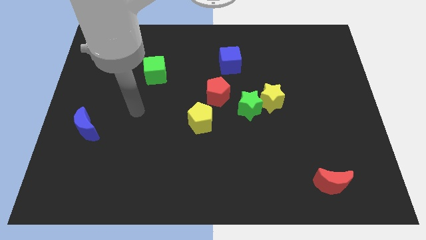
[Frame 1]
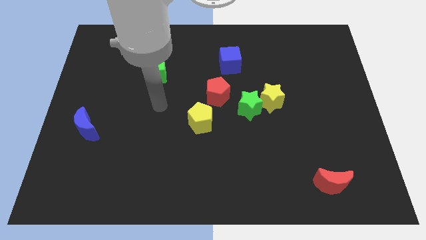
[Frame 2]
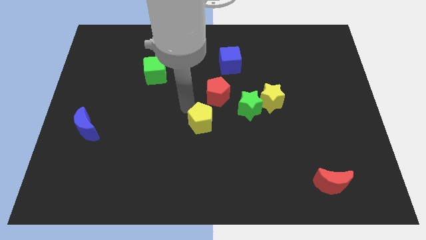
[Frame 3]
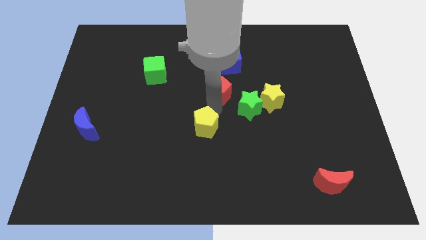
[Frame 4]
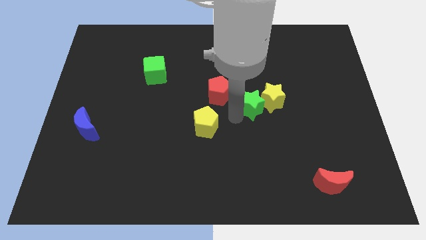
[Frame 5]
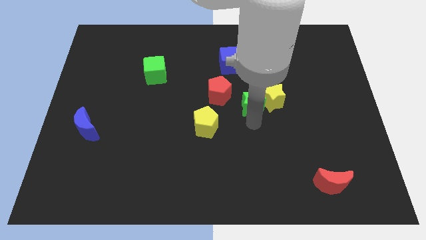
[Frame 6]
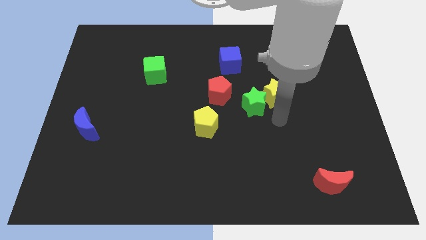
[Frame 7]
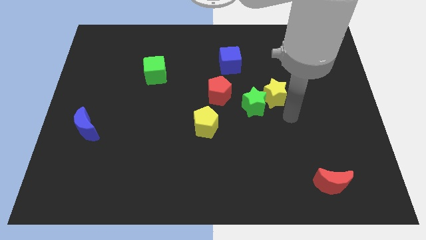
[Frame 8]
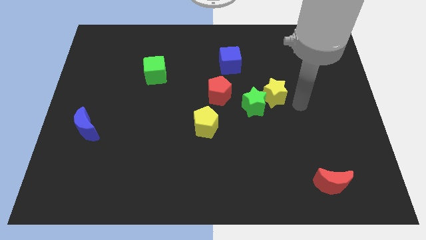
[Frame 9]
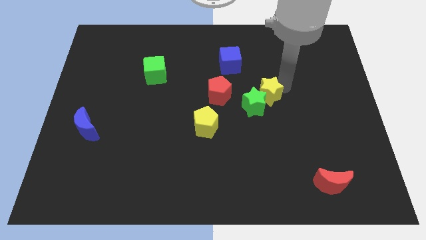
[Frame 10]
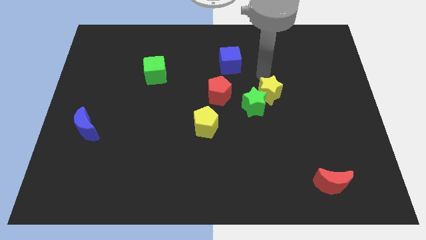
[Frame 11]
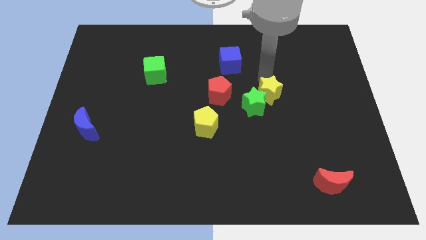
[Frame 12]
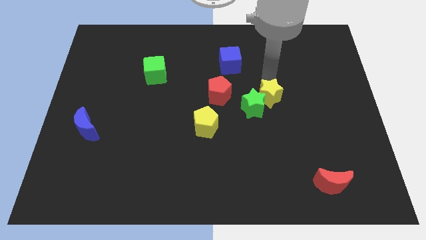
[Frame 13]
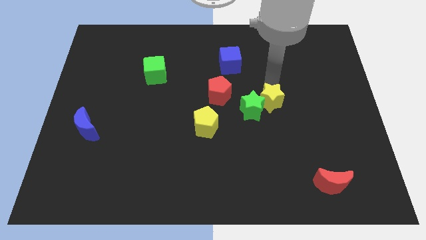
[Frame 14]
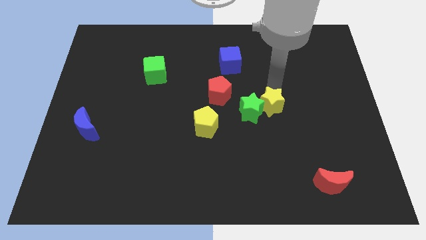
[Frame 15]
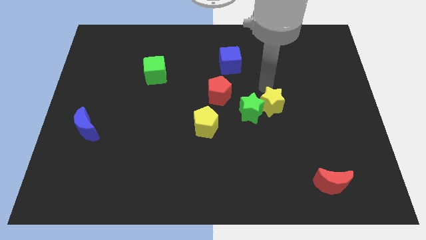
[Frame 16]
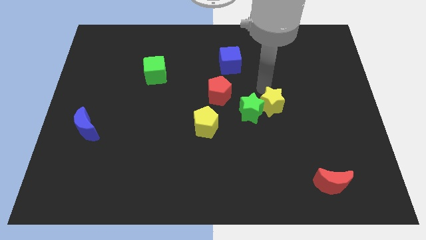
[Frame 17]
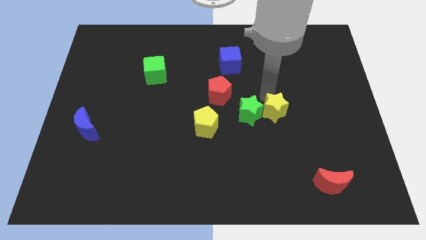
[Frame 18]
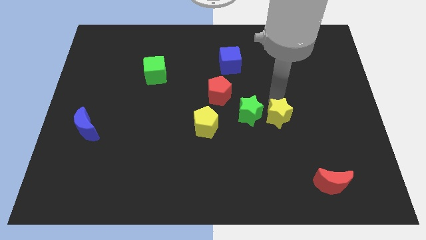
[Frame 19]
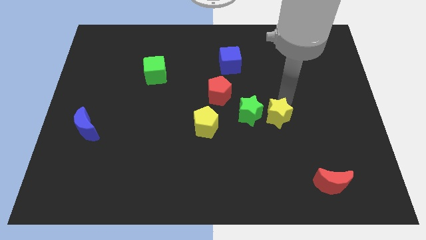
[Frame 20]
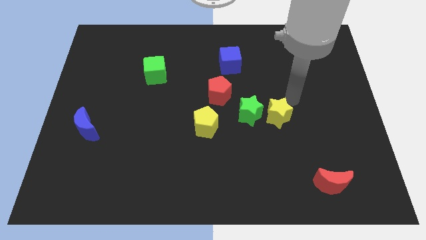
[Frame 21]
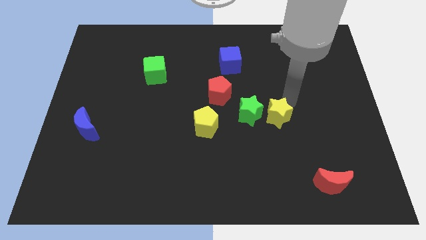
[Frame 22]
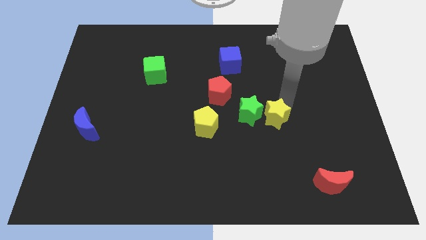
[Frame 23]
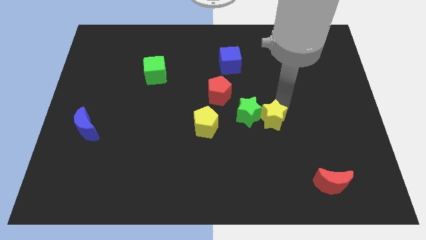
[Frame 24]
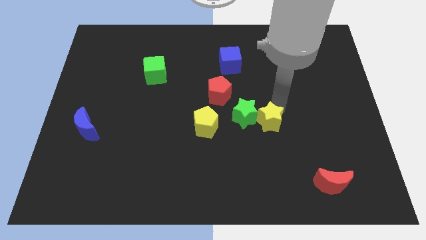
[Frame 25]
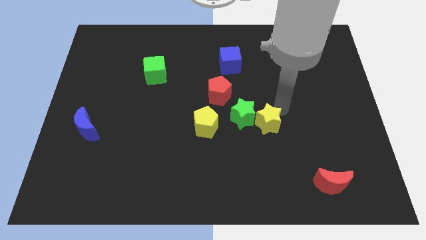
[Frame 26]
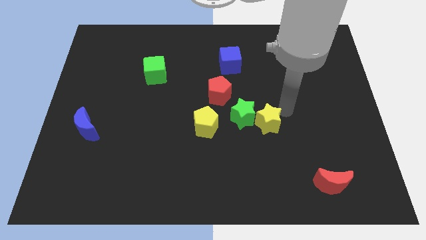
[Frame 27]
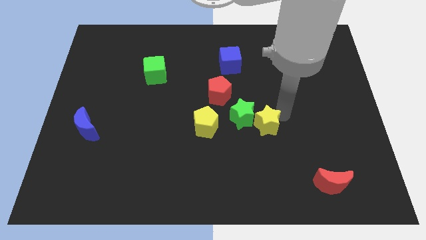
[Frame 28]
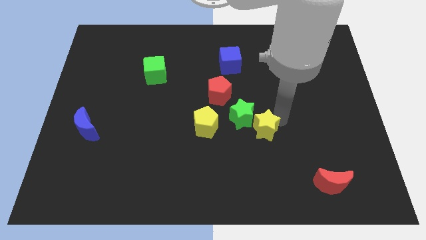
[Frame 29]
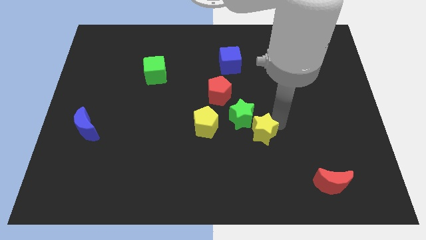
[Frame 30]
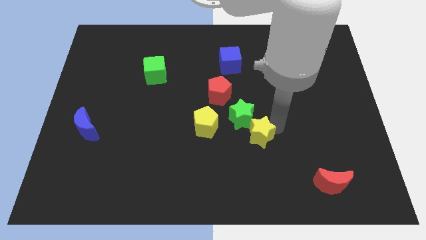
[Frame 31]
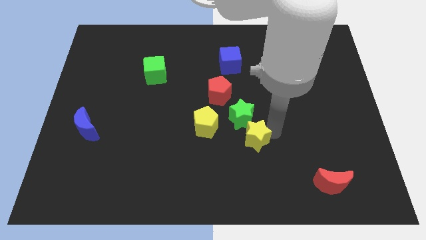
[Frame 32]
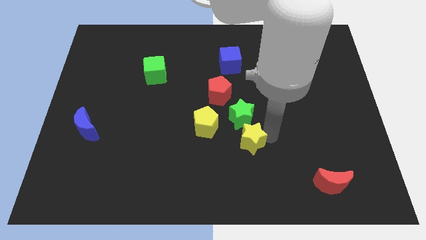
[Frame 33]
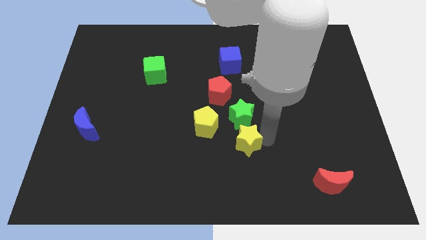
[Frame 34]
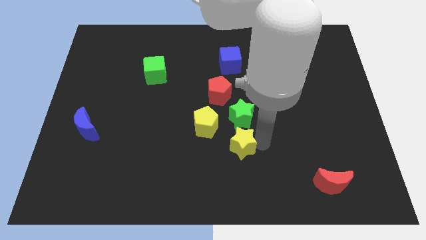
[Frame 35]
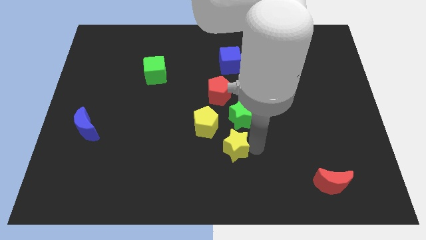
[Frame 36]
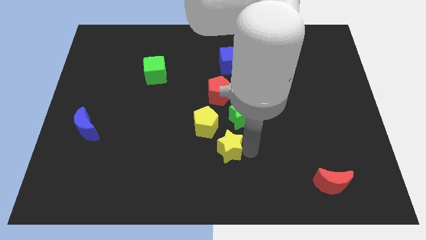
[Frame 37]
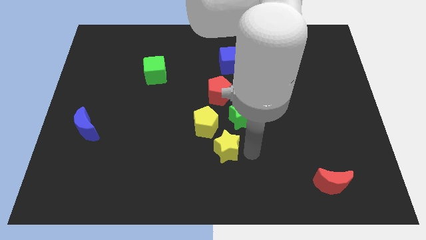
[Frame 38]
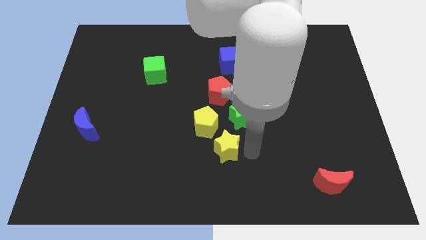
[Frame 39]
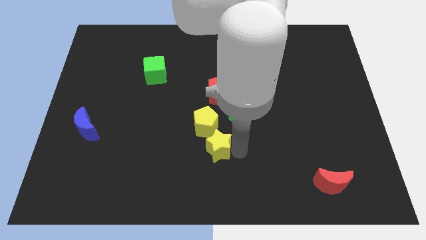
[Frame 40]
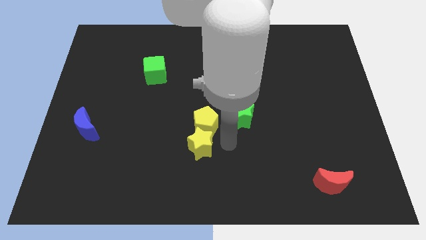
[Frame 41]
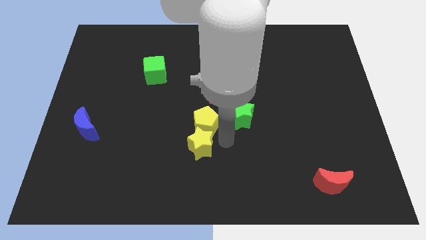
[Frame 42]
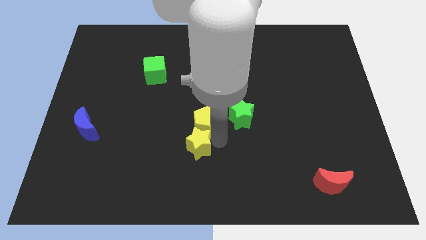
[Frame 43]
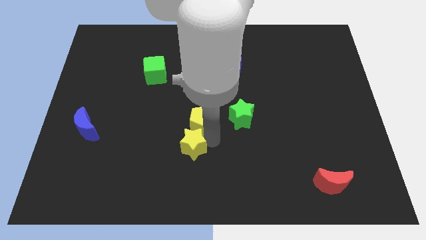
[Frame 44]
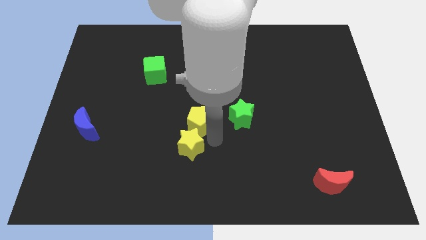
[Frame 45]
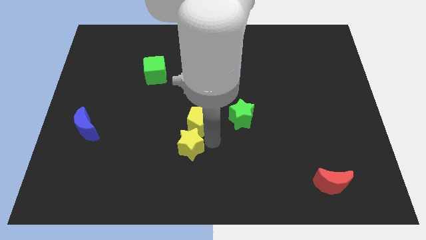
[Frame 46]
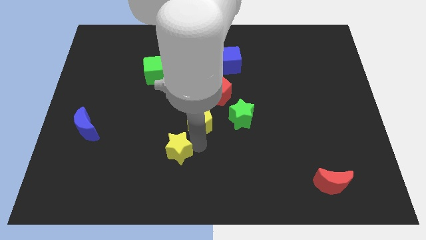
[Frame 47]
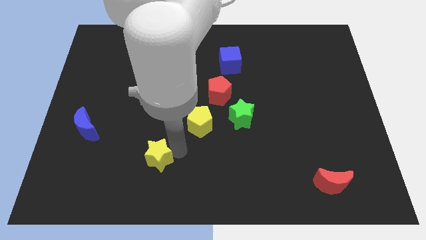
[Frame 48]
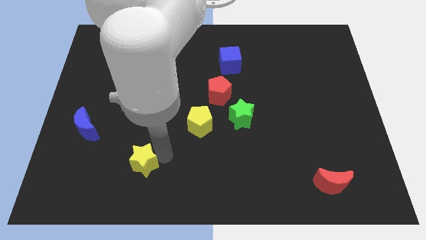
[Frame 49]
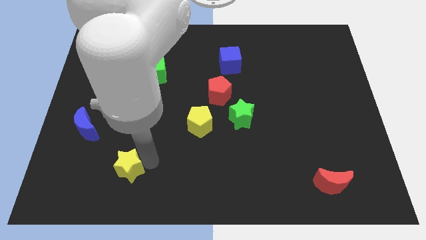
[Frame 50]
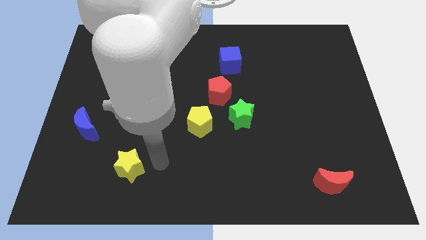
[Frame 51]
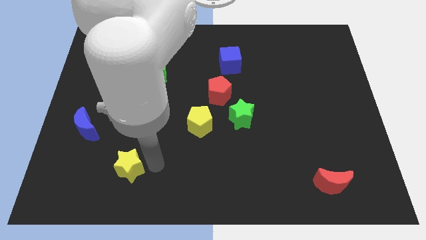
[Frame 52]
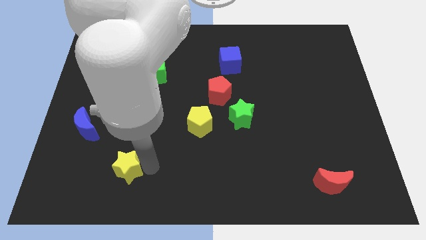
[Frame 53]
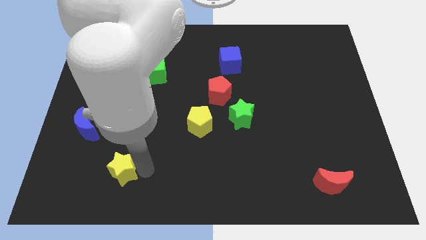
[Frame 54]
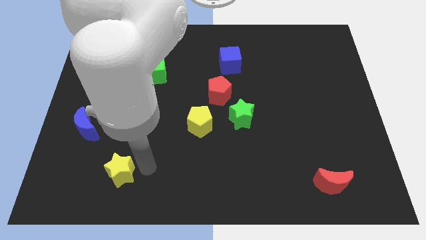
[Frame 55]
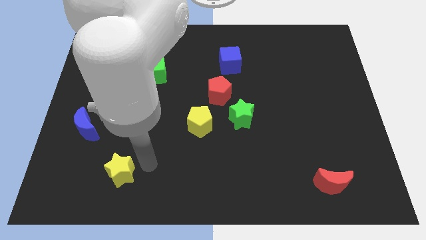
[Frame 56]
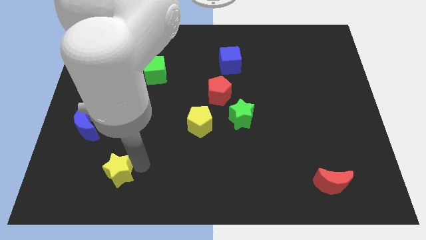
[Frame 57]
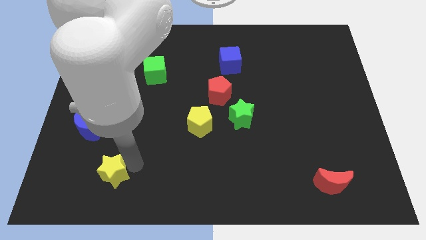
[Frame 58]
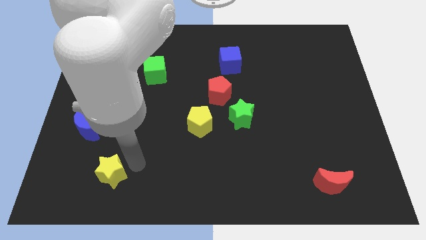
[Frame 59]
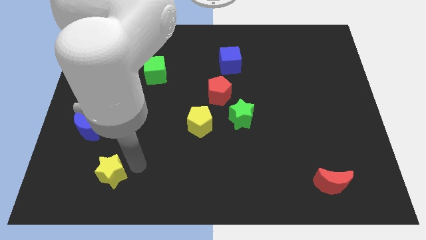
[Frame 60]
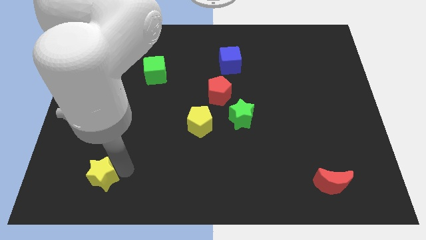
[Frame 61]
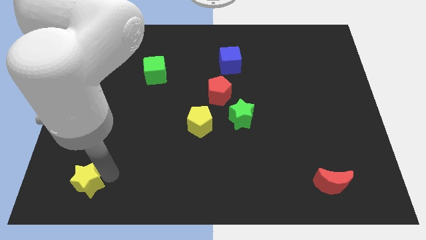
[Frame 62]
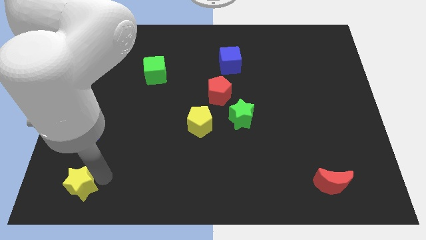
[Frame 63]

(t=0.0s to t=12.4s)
push the yellow star to the bottom left corner
